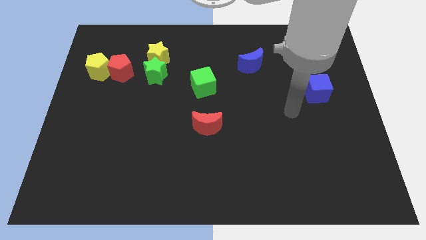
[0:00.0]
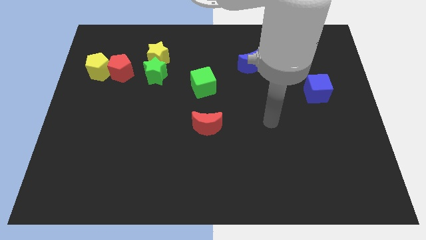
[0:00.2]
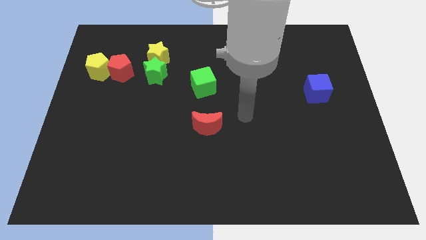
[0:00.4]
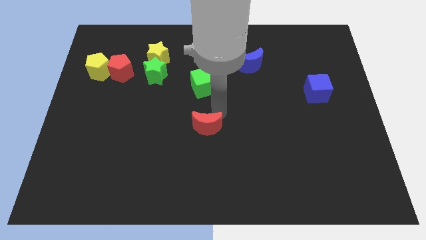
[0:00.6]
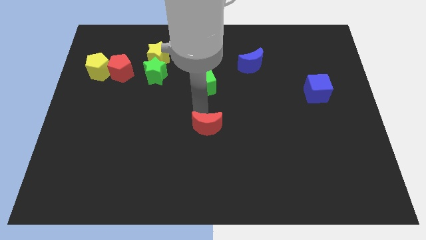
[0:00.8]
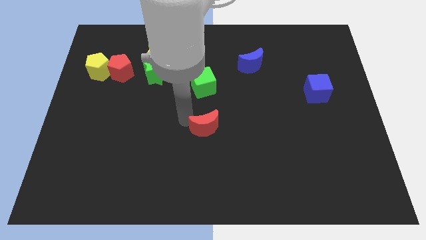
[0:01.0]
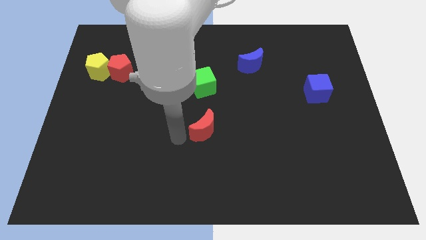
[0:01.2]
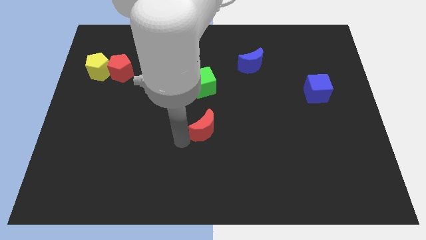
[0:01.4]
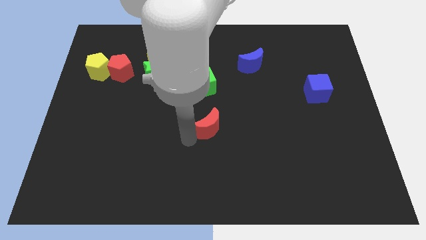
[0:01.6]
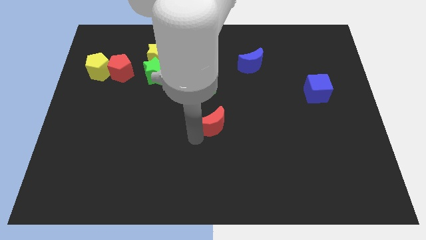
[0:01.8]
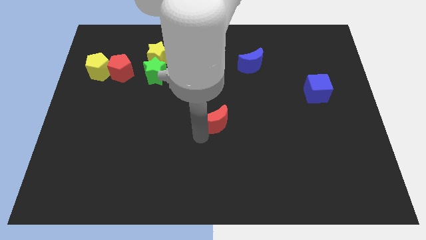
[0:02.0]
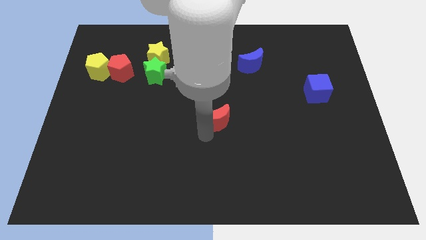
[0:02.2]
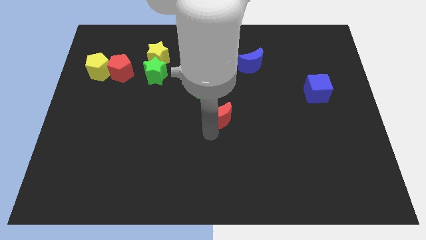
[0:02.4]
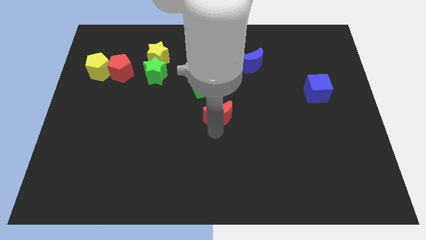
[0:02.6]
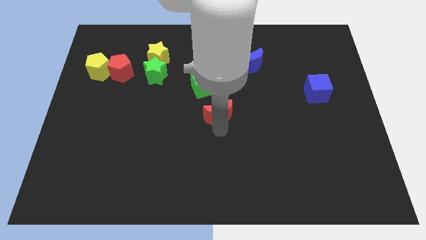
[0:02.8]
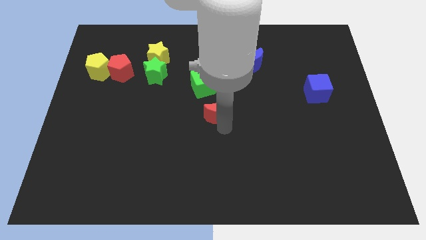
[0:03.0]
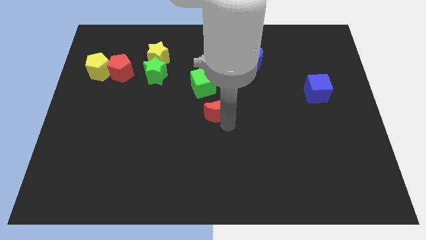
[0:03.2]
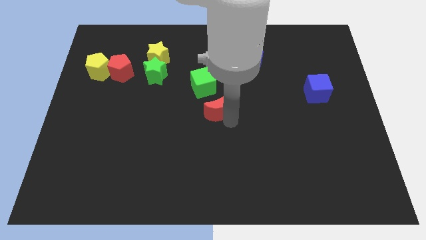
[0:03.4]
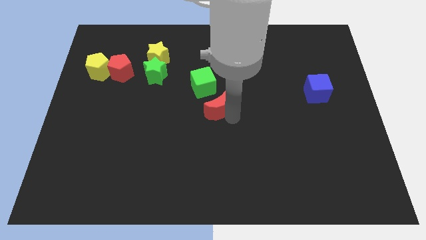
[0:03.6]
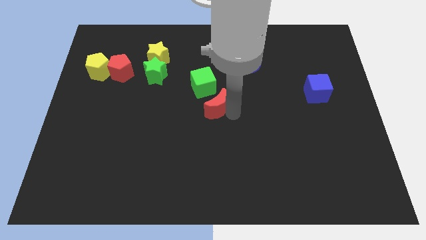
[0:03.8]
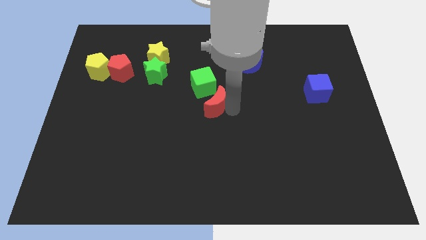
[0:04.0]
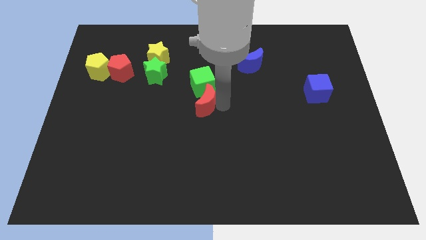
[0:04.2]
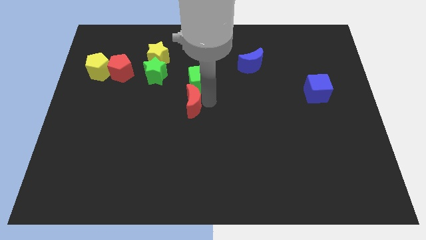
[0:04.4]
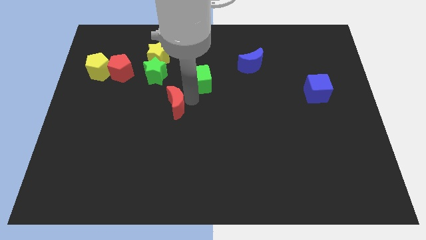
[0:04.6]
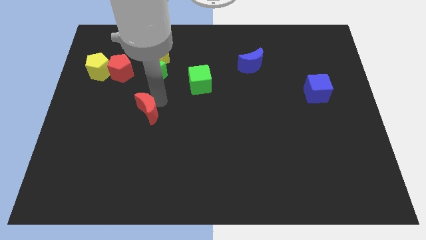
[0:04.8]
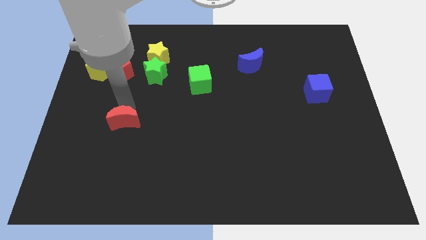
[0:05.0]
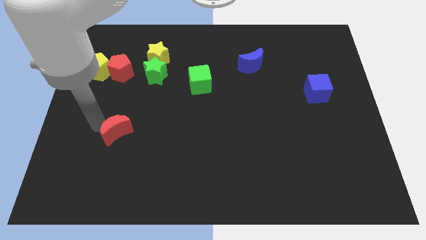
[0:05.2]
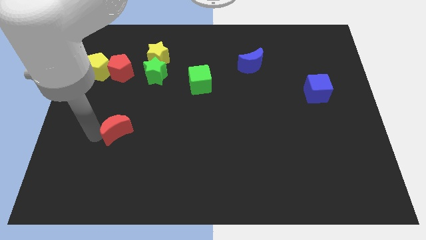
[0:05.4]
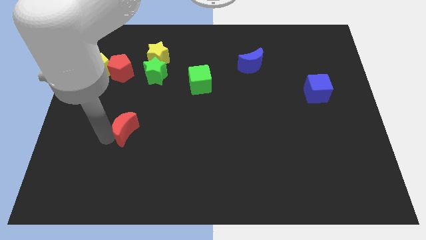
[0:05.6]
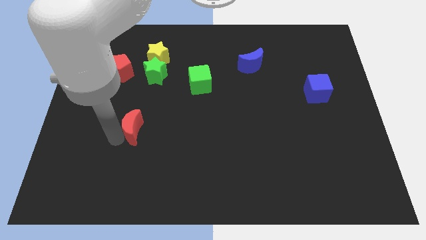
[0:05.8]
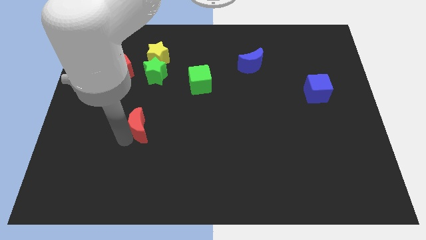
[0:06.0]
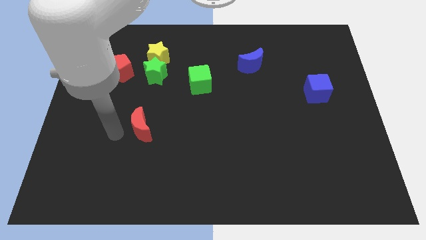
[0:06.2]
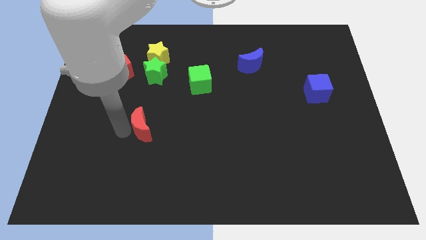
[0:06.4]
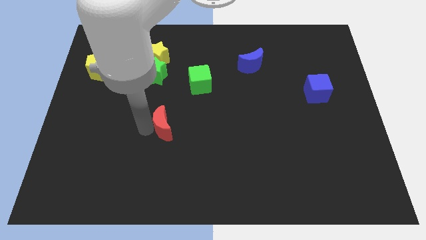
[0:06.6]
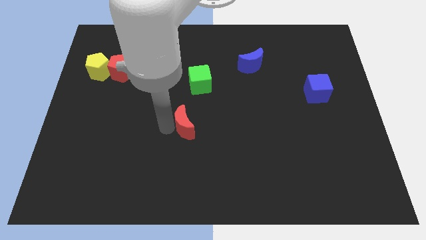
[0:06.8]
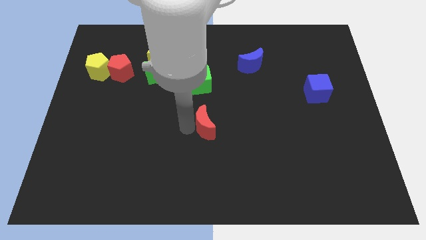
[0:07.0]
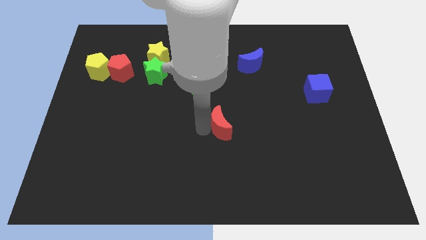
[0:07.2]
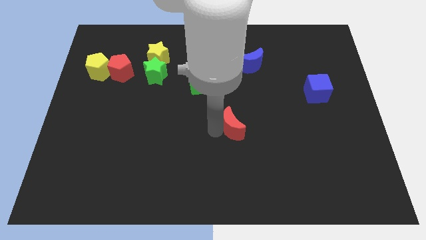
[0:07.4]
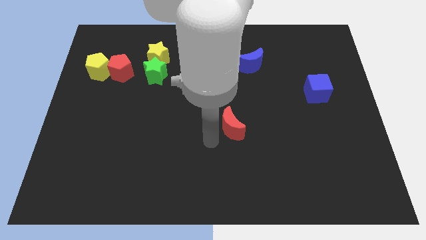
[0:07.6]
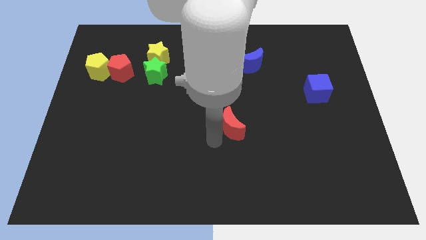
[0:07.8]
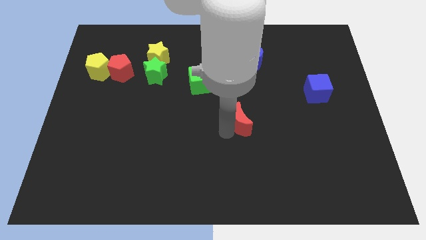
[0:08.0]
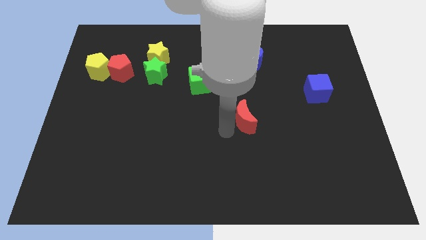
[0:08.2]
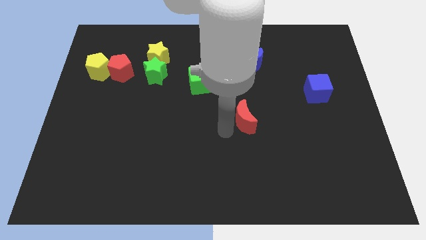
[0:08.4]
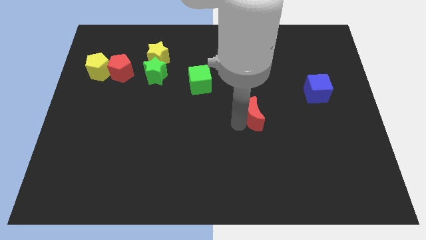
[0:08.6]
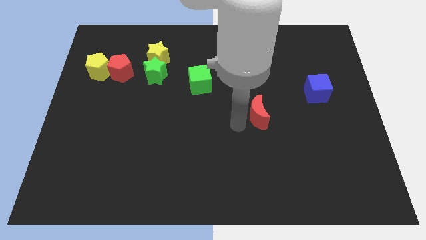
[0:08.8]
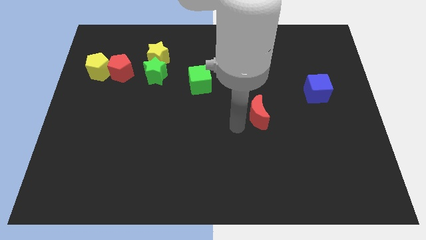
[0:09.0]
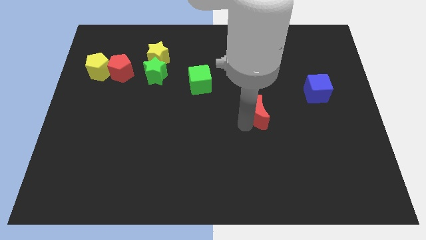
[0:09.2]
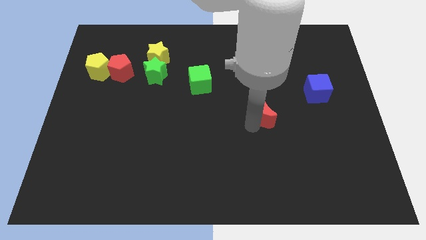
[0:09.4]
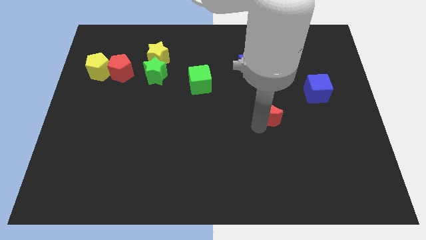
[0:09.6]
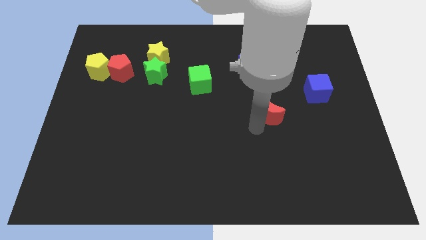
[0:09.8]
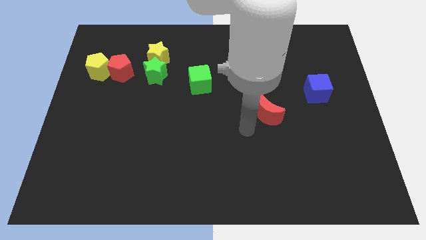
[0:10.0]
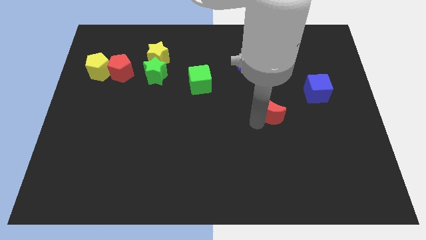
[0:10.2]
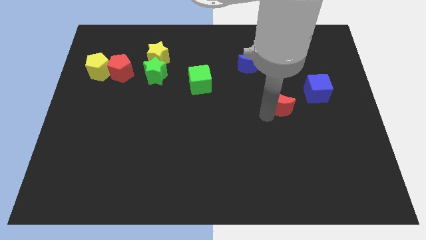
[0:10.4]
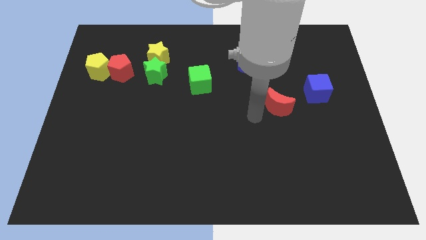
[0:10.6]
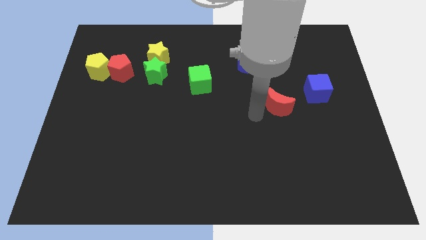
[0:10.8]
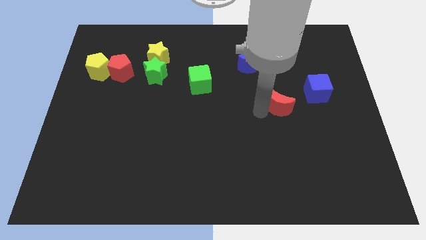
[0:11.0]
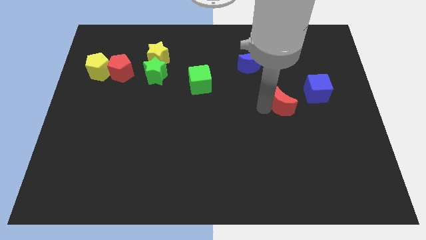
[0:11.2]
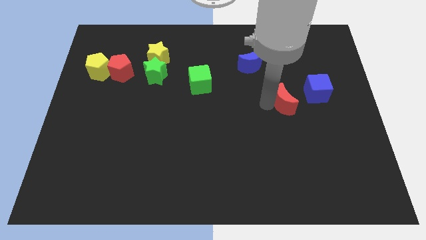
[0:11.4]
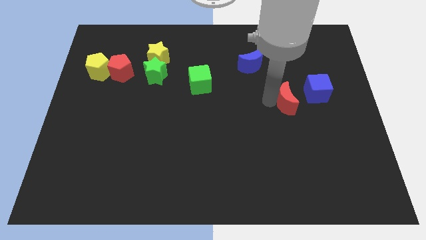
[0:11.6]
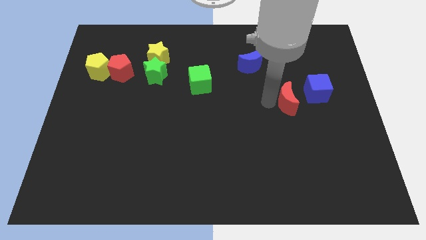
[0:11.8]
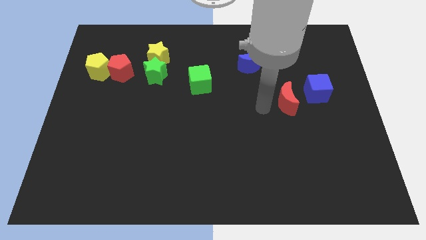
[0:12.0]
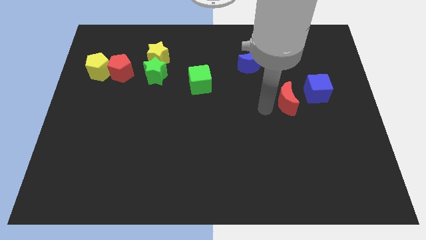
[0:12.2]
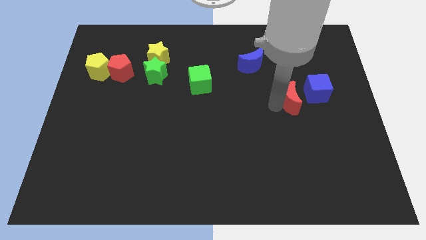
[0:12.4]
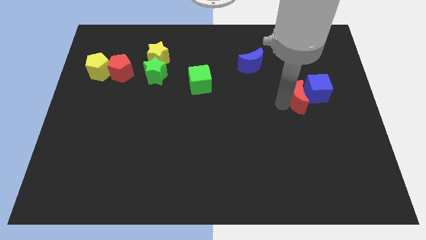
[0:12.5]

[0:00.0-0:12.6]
put the red moon close to the blue cube
